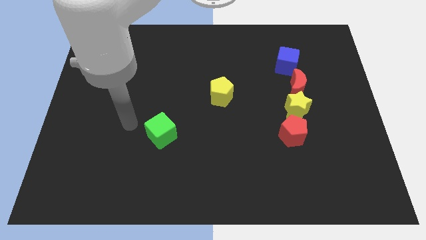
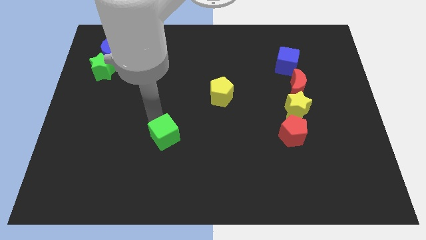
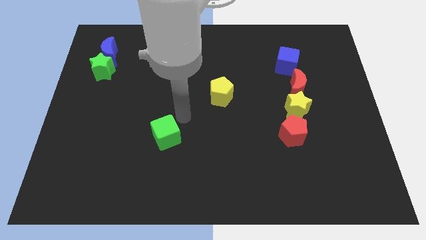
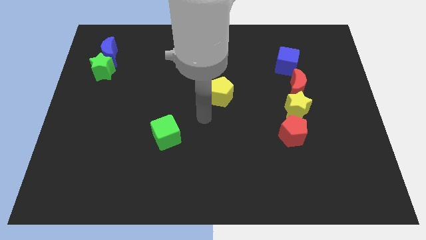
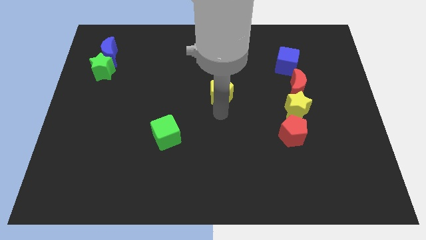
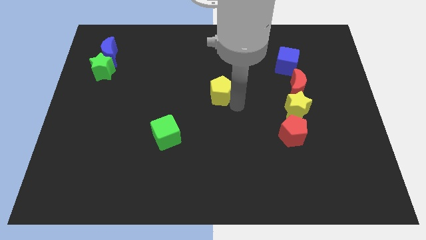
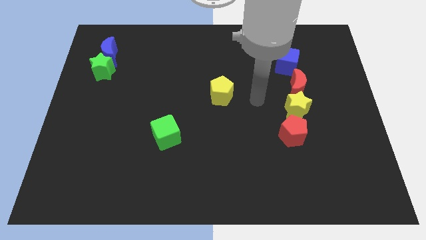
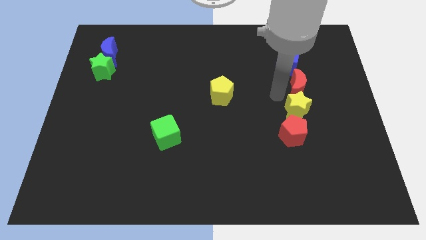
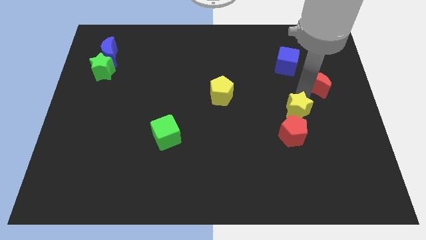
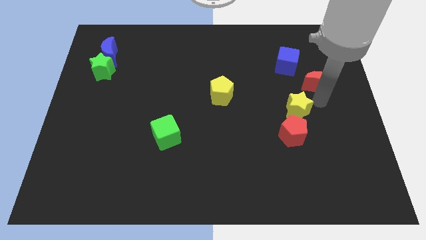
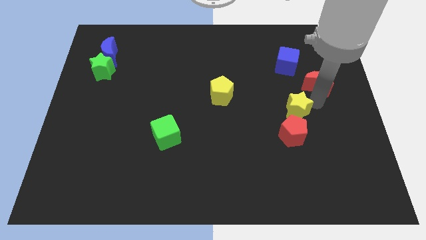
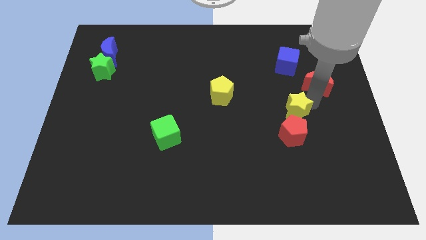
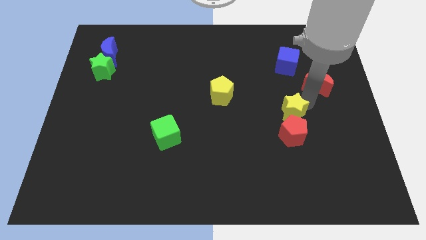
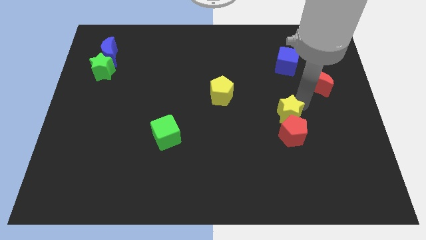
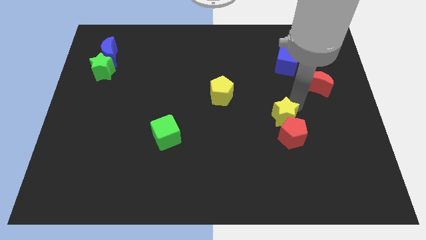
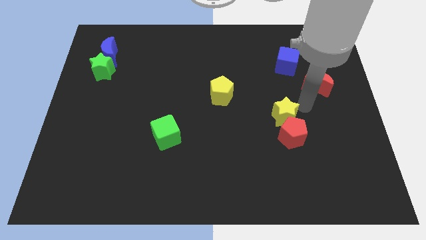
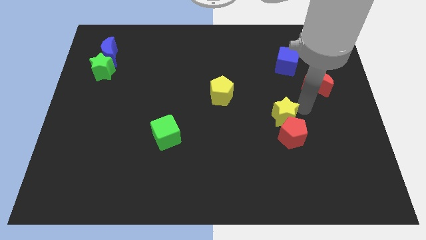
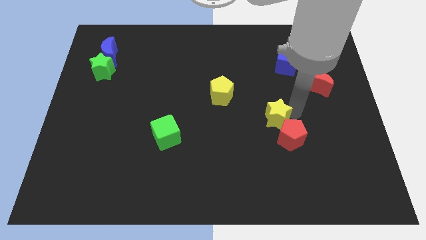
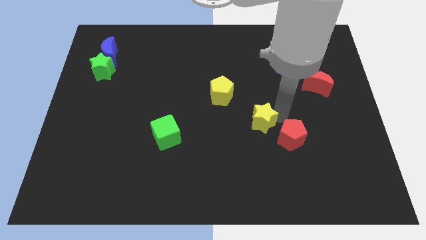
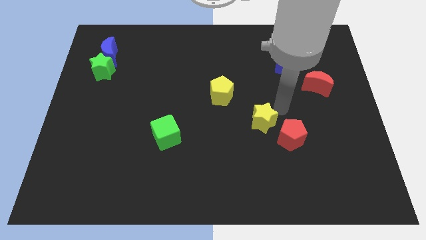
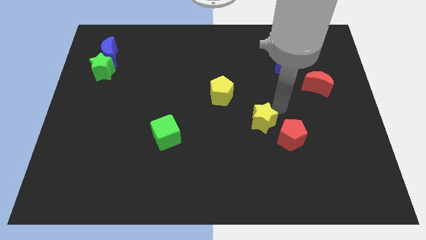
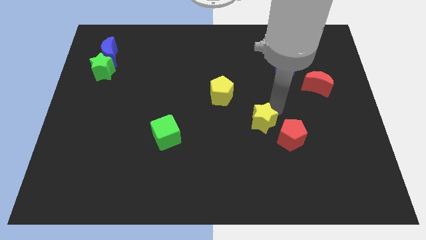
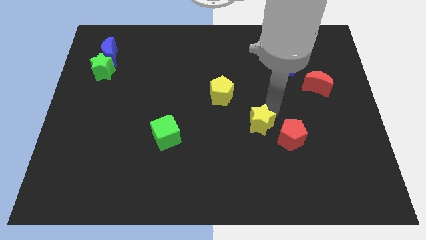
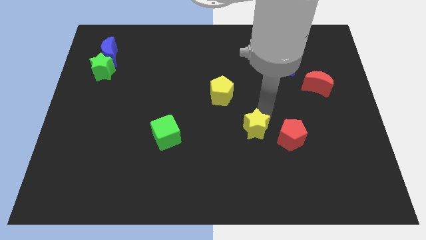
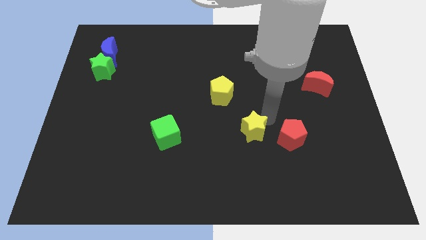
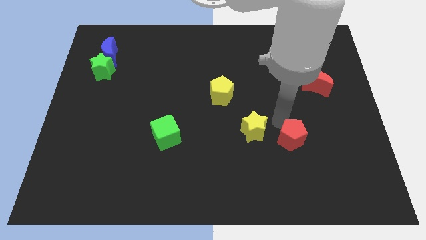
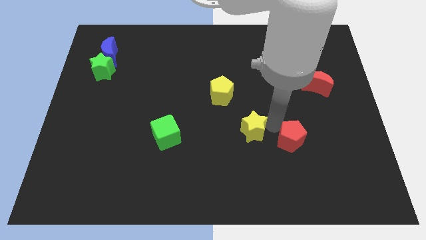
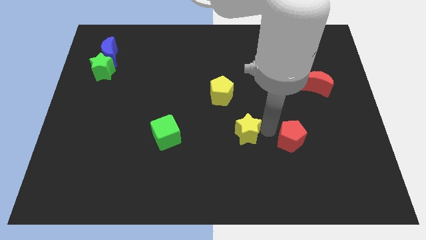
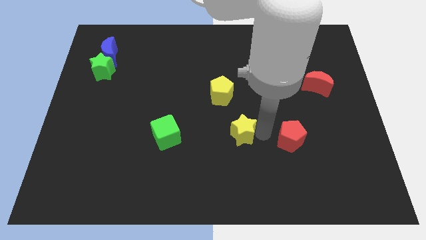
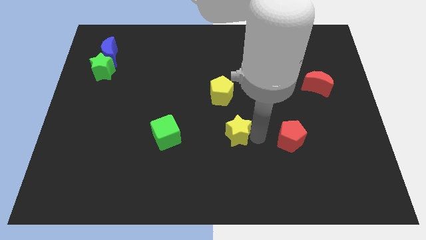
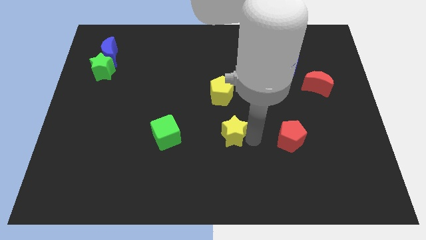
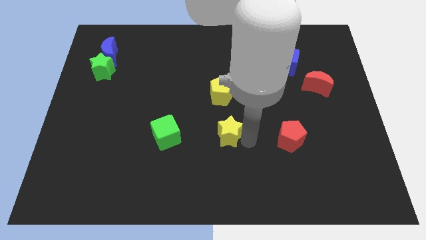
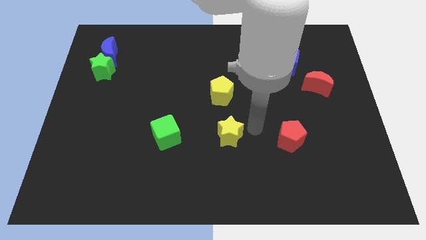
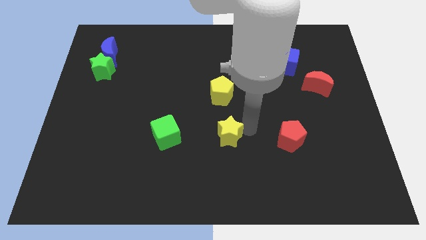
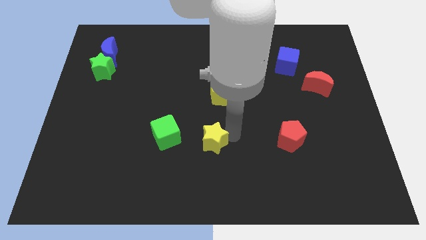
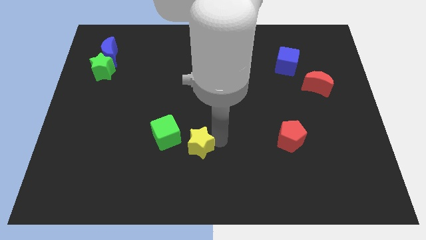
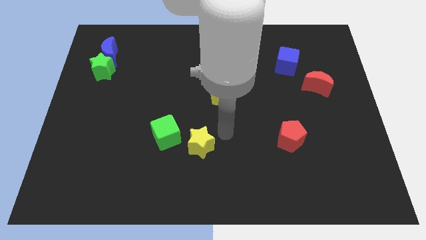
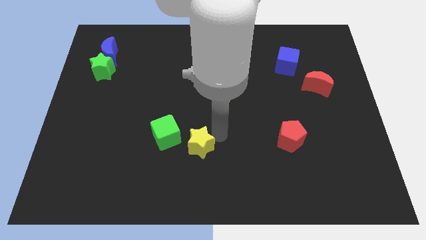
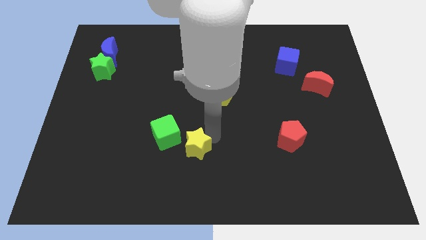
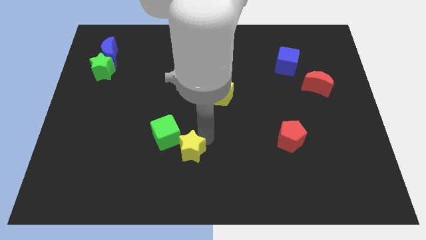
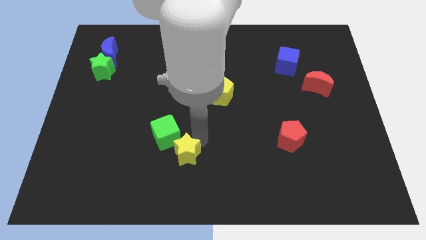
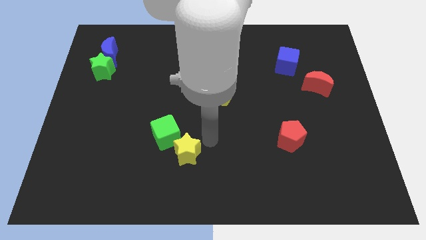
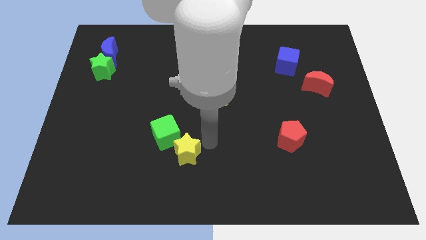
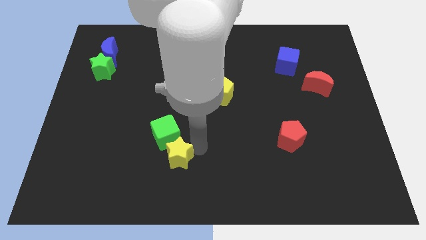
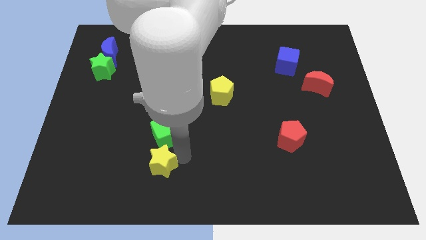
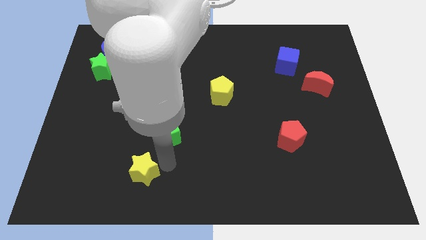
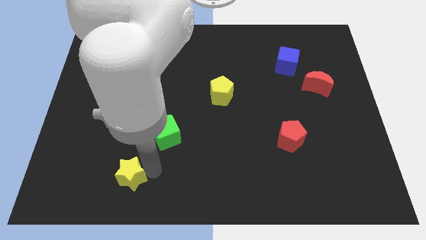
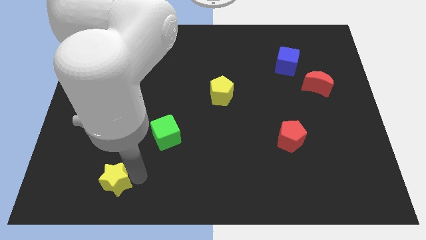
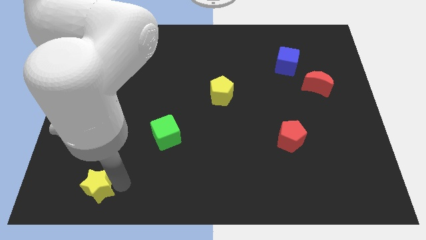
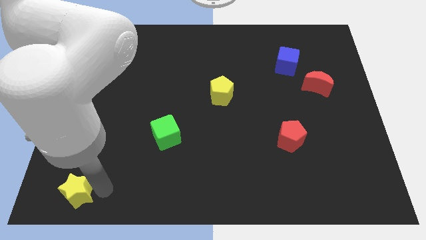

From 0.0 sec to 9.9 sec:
move the yellow star to the lower left corner

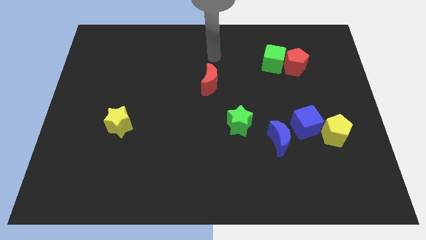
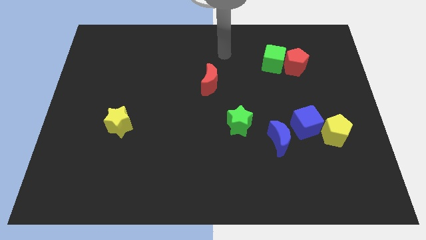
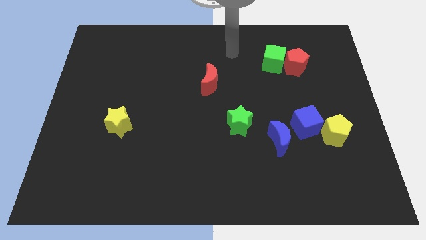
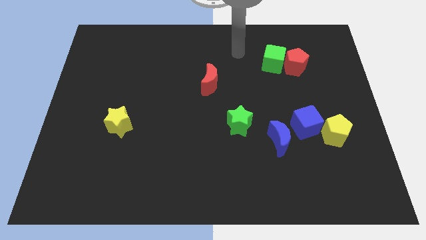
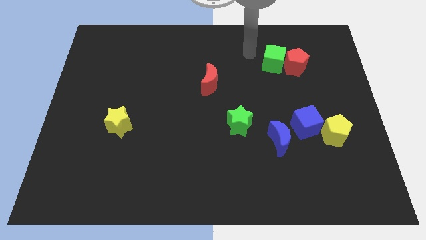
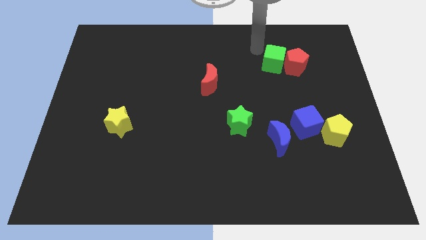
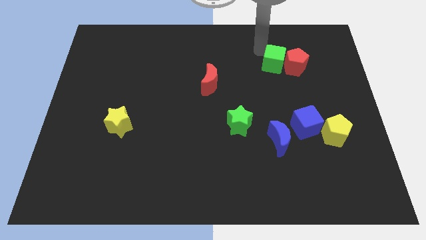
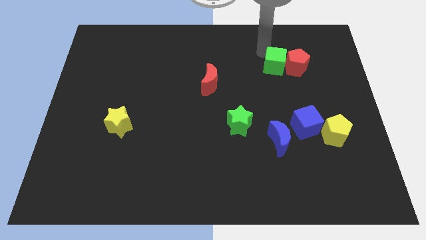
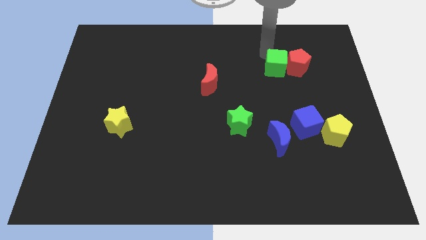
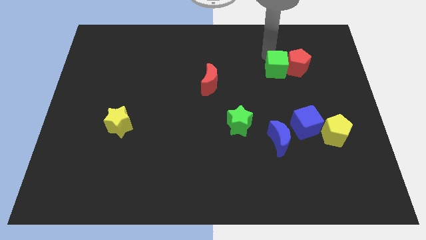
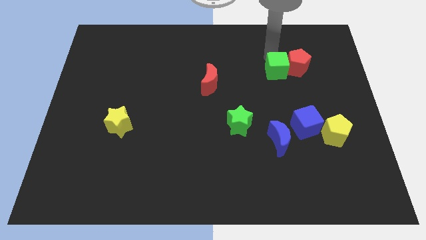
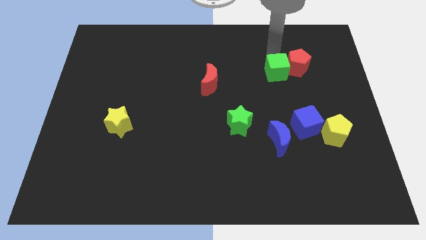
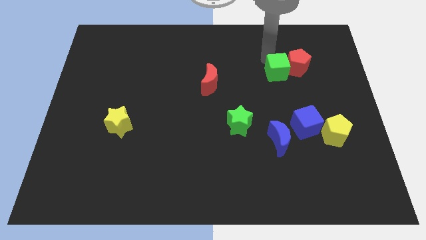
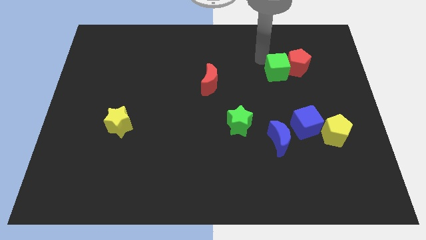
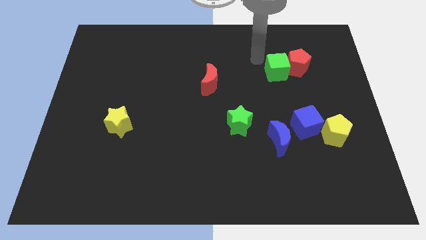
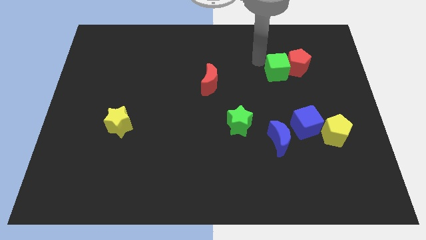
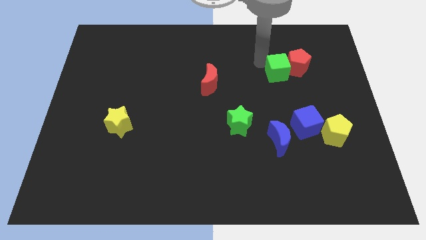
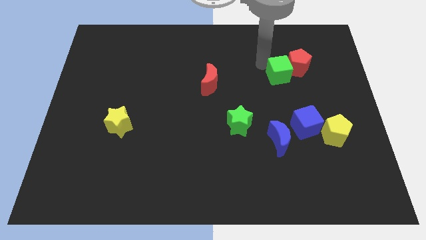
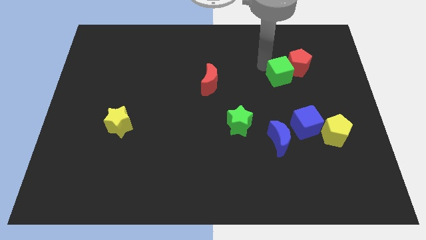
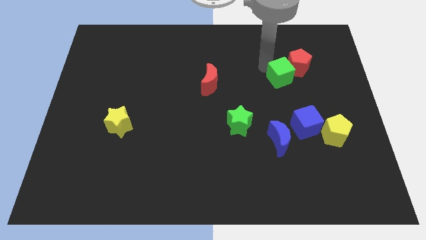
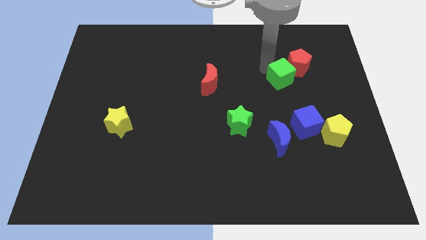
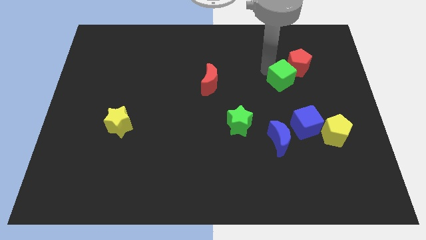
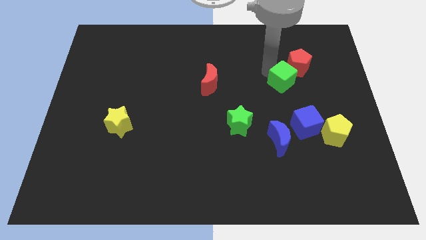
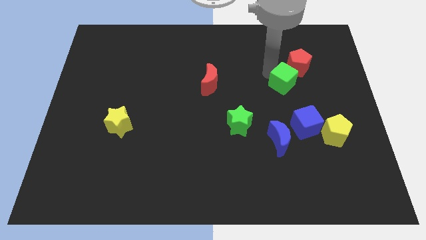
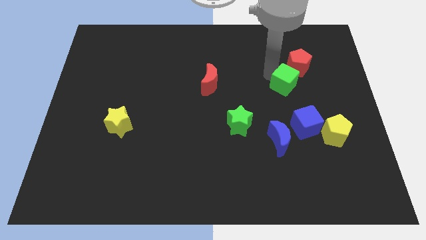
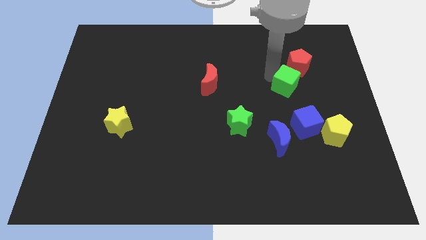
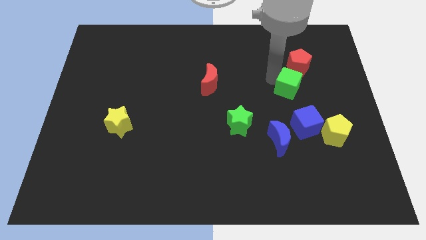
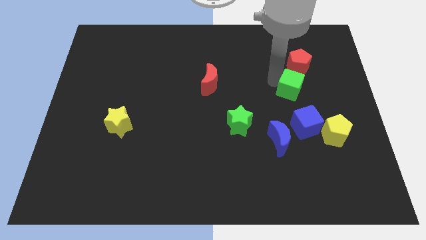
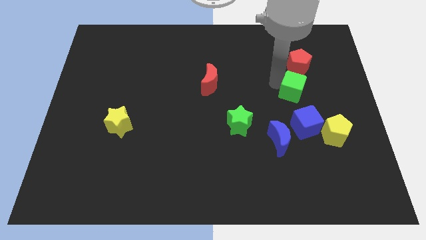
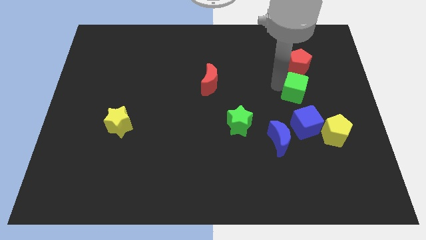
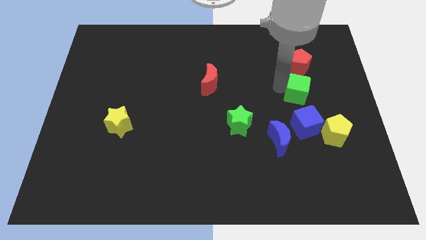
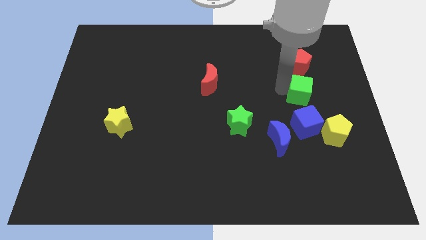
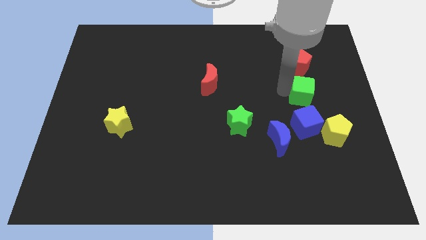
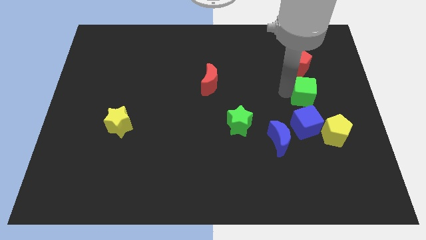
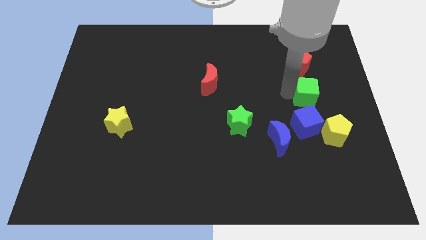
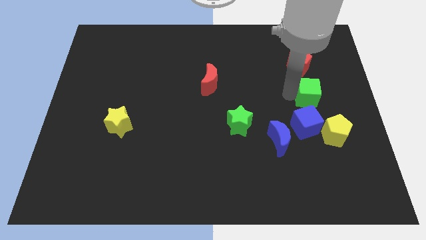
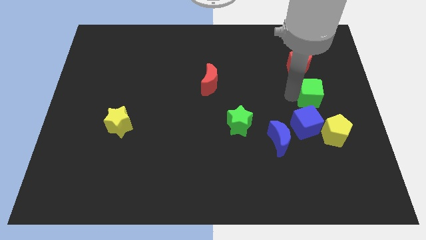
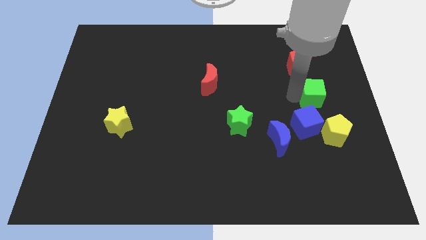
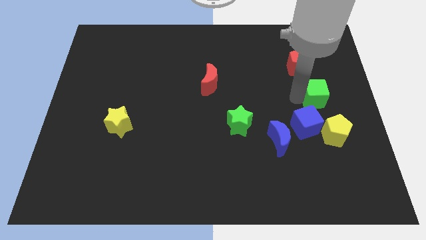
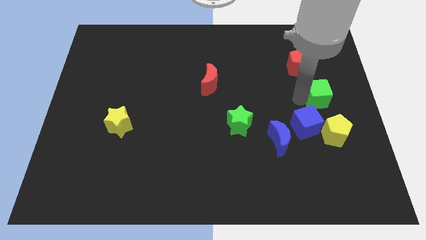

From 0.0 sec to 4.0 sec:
push the green cube to the right side of the board
